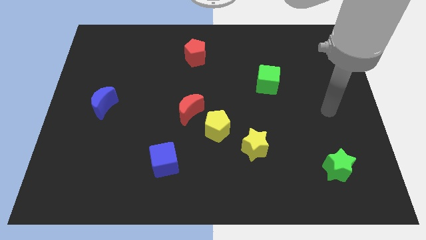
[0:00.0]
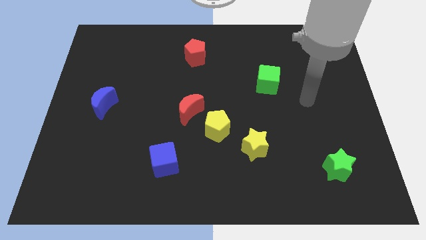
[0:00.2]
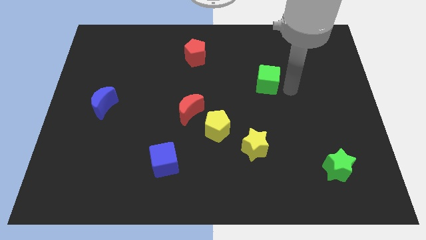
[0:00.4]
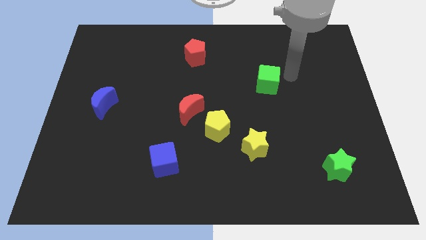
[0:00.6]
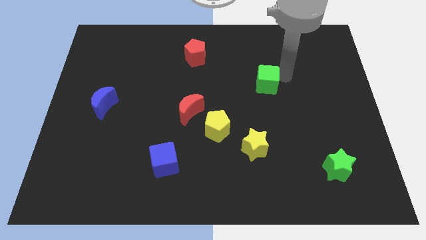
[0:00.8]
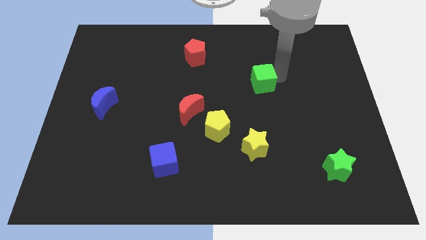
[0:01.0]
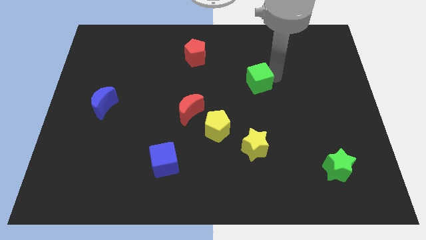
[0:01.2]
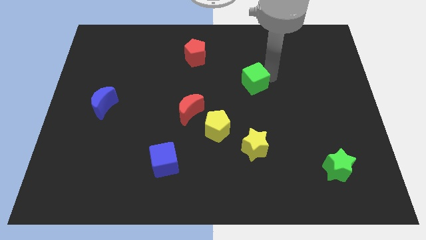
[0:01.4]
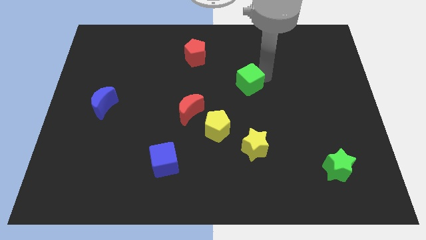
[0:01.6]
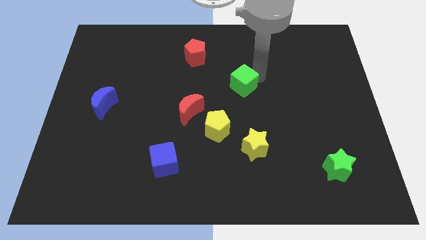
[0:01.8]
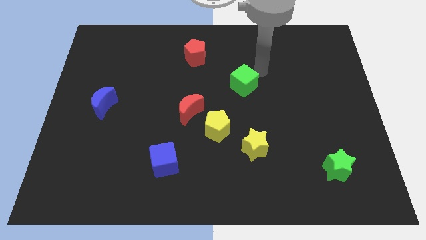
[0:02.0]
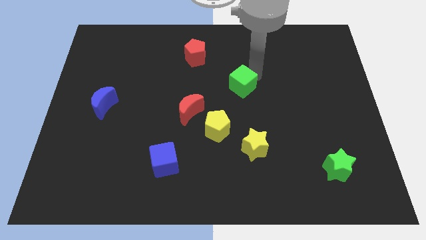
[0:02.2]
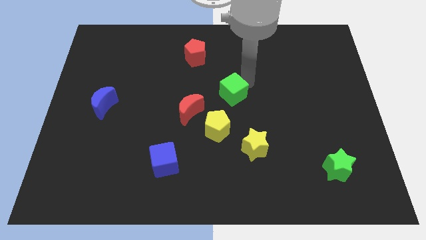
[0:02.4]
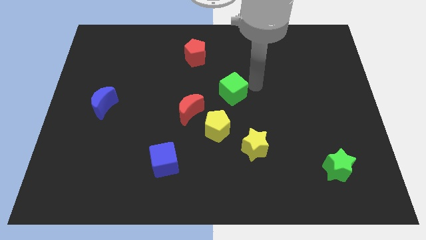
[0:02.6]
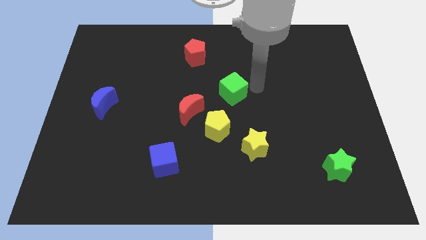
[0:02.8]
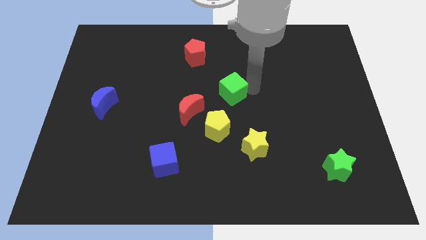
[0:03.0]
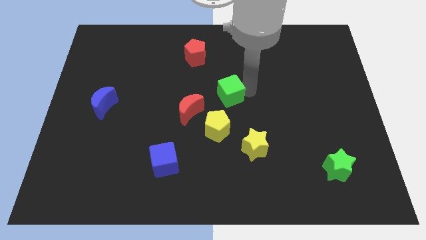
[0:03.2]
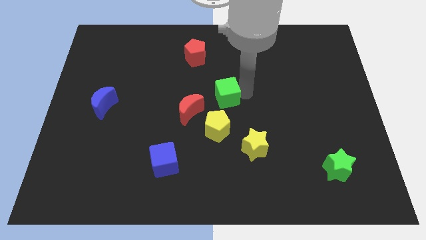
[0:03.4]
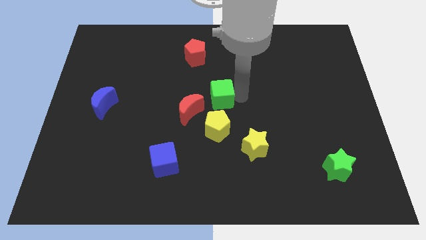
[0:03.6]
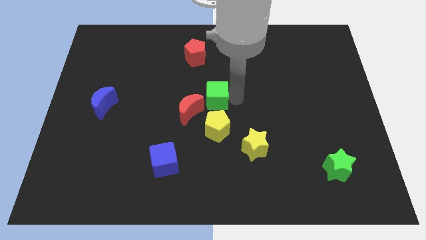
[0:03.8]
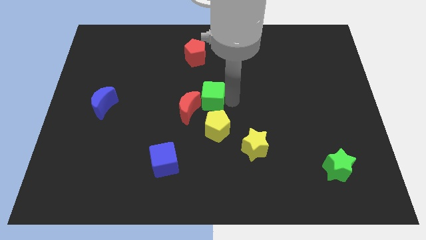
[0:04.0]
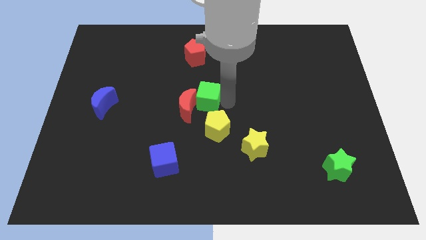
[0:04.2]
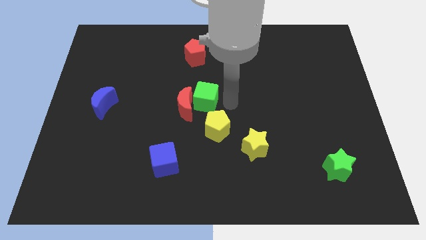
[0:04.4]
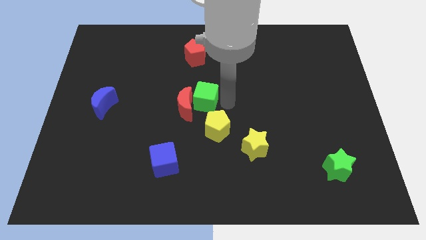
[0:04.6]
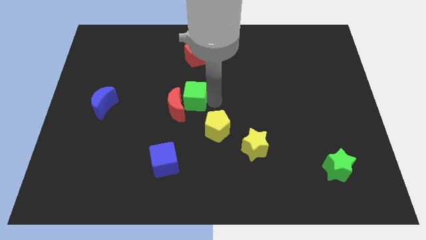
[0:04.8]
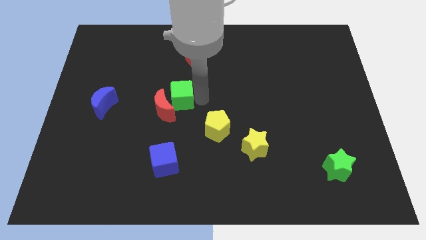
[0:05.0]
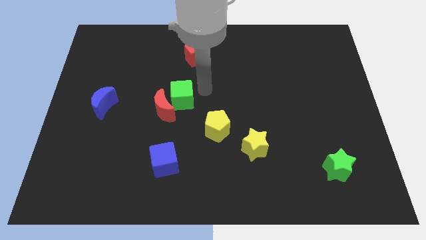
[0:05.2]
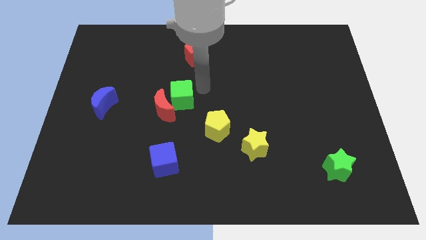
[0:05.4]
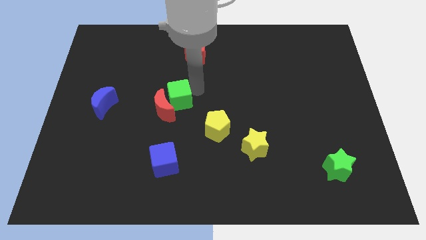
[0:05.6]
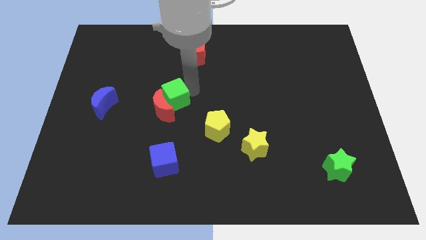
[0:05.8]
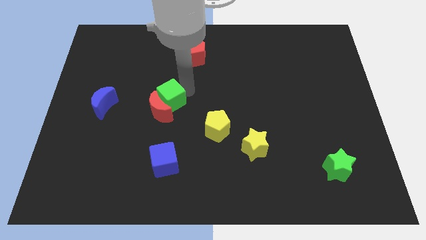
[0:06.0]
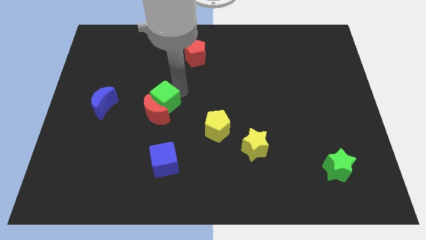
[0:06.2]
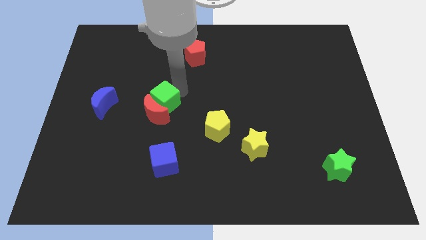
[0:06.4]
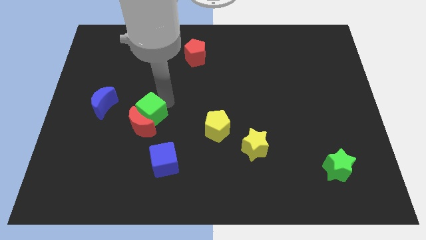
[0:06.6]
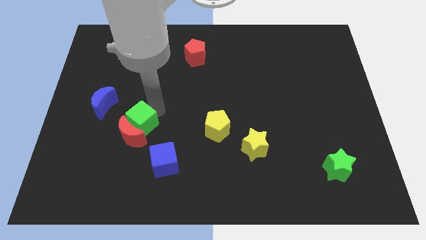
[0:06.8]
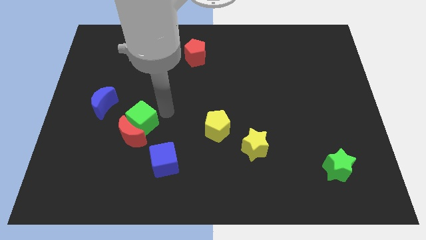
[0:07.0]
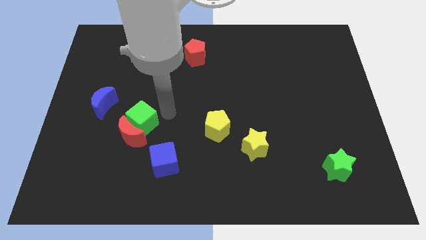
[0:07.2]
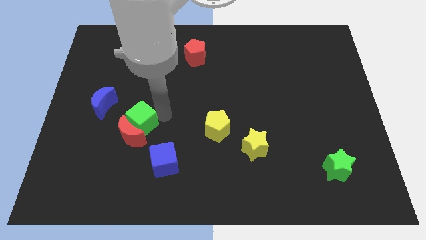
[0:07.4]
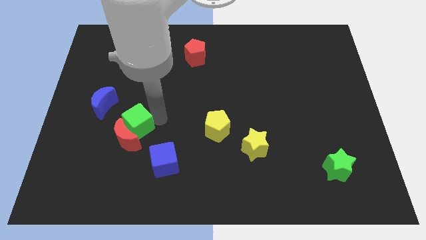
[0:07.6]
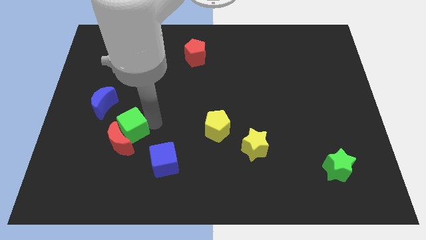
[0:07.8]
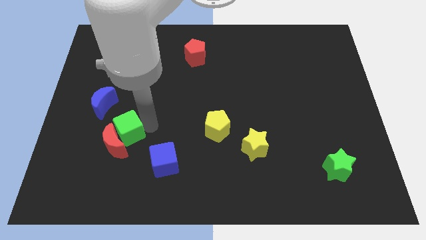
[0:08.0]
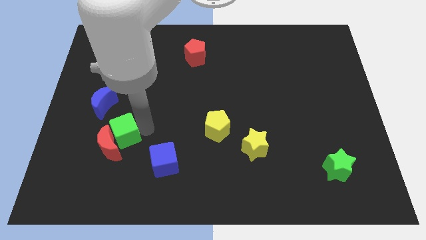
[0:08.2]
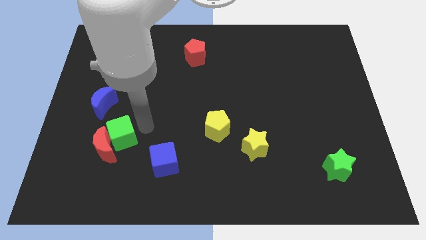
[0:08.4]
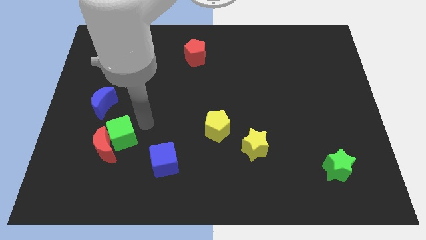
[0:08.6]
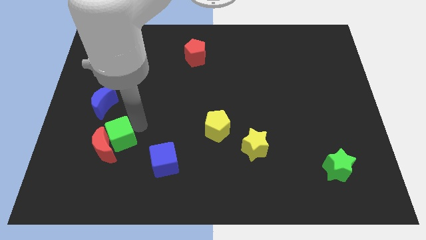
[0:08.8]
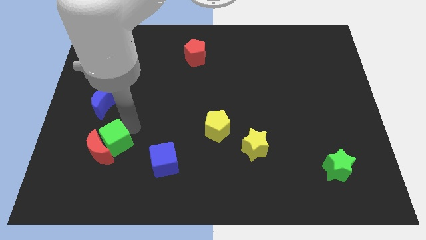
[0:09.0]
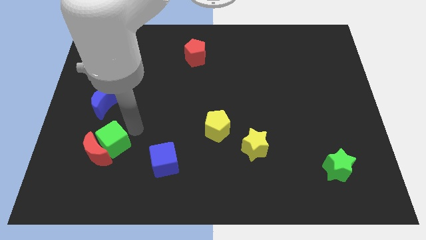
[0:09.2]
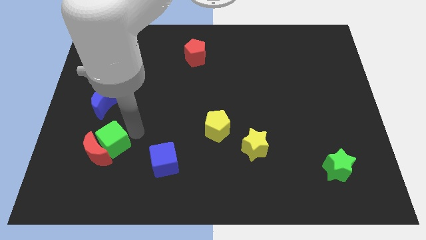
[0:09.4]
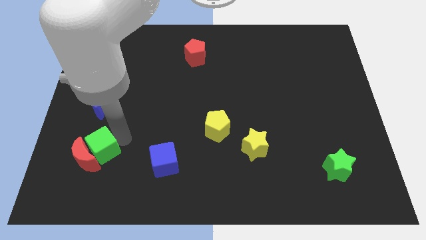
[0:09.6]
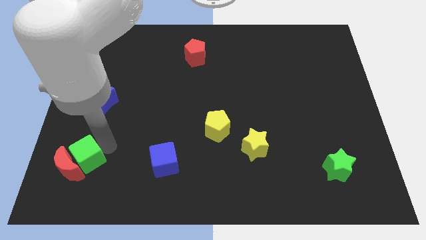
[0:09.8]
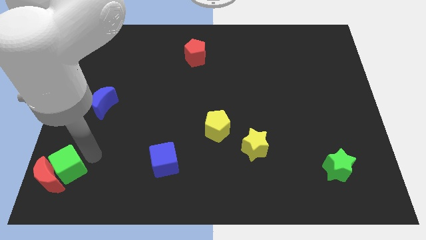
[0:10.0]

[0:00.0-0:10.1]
push the green cube to the bottom left of the board

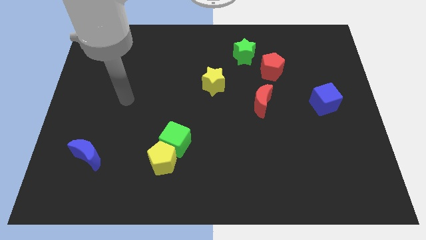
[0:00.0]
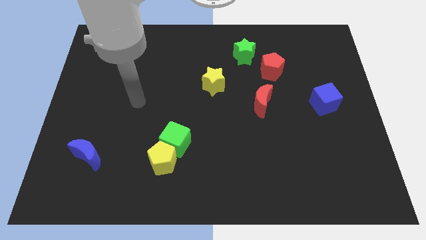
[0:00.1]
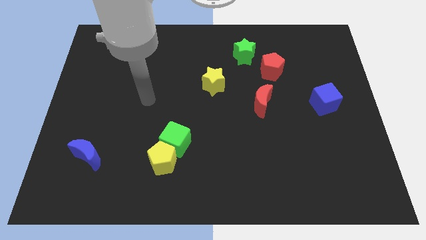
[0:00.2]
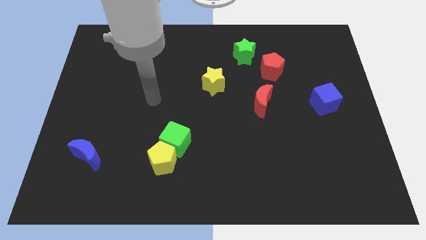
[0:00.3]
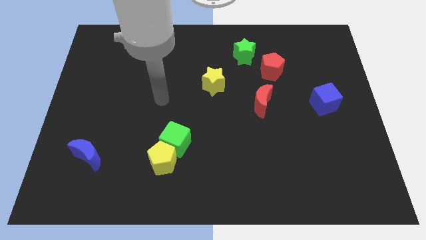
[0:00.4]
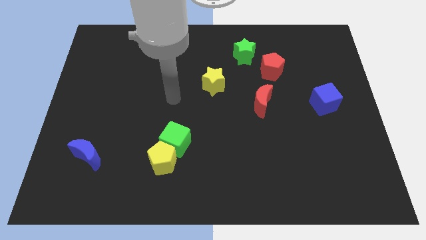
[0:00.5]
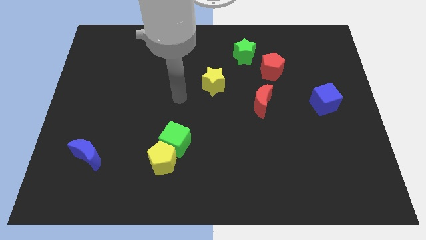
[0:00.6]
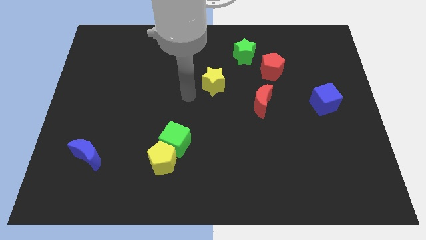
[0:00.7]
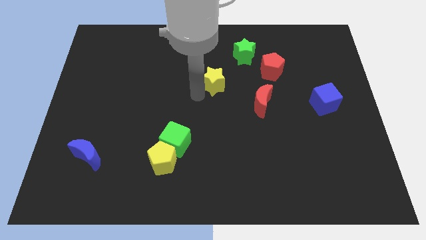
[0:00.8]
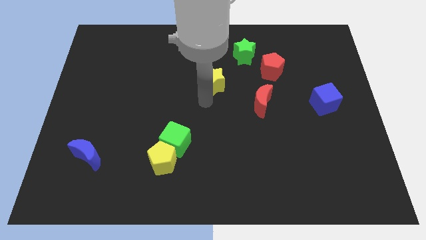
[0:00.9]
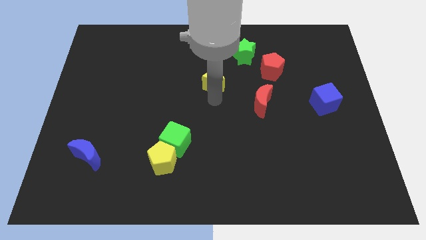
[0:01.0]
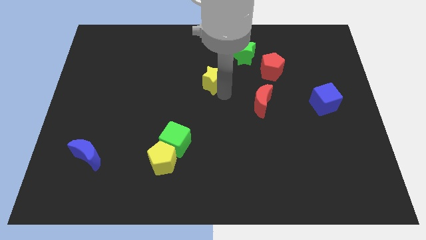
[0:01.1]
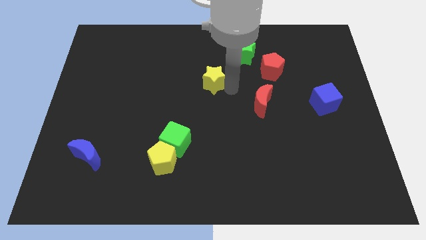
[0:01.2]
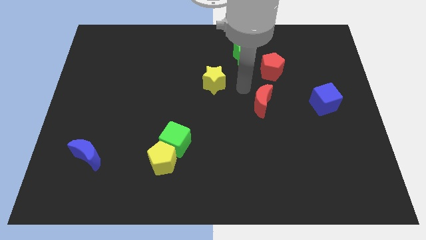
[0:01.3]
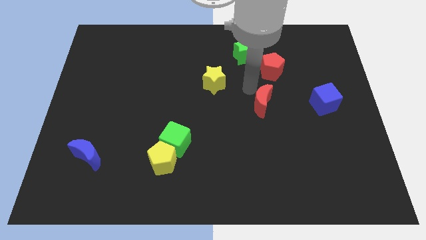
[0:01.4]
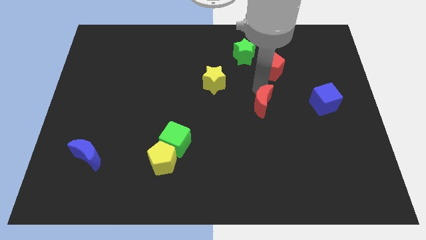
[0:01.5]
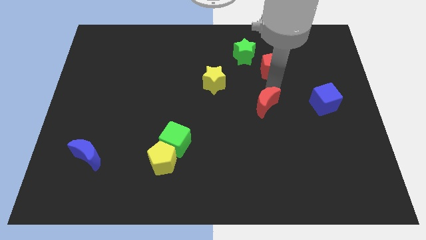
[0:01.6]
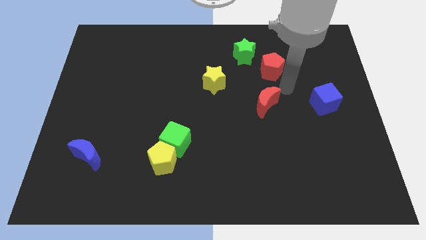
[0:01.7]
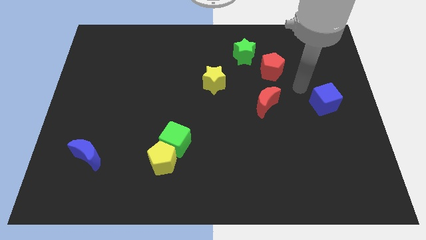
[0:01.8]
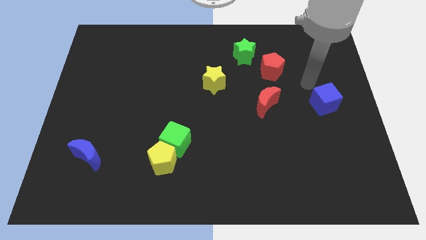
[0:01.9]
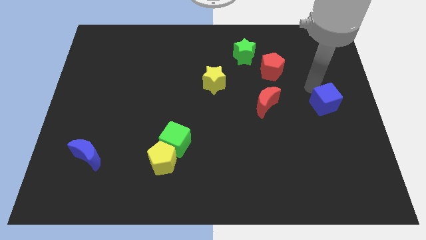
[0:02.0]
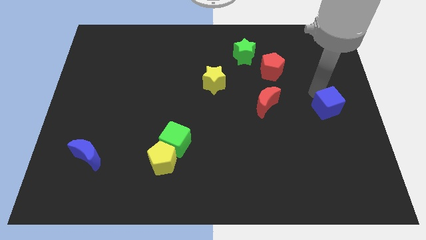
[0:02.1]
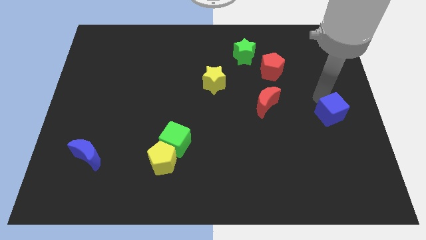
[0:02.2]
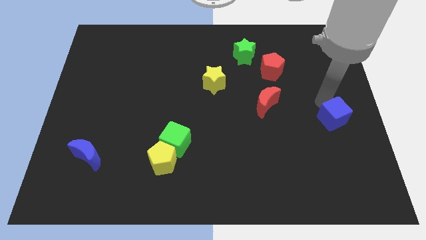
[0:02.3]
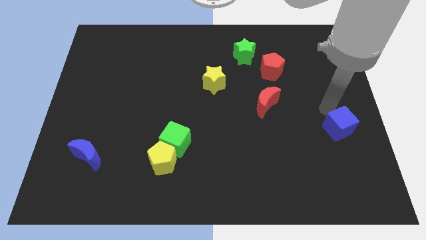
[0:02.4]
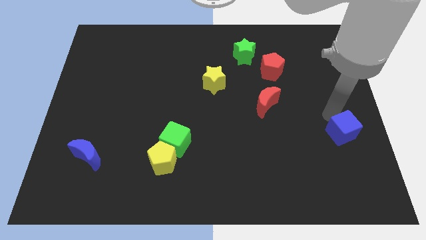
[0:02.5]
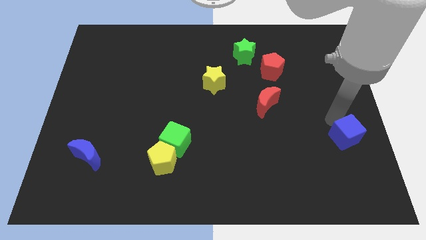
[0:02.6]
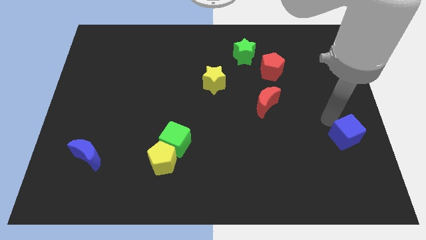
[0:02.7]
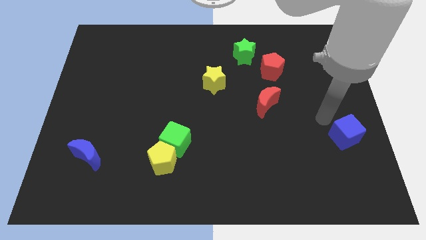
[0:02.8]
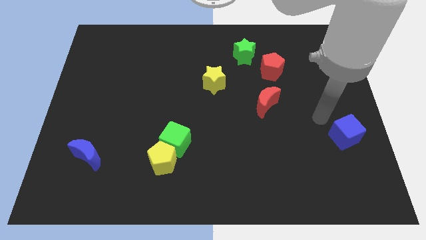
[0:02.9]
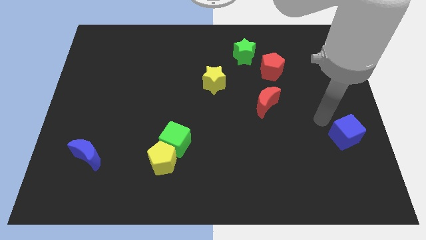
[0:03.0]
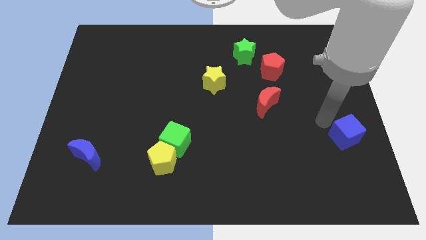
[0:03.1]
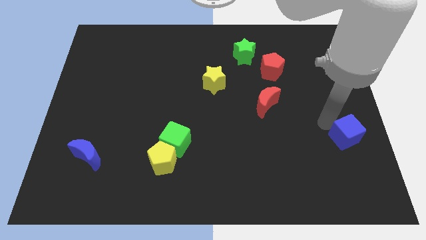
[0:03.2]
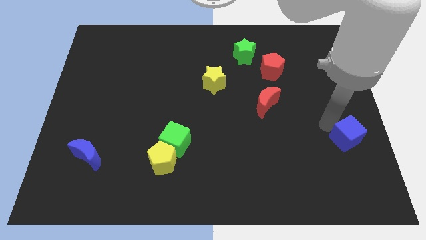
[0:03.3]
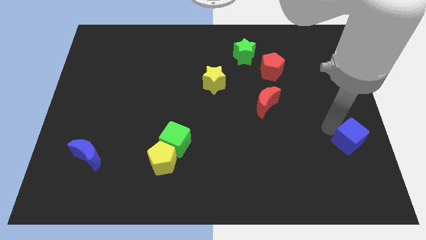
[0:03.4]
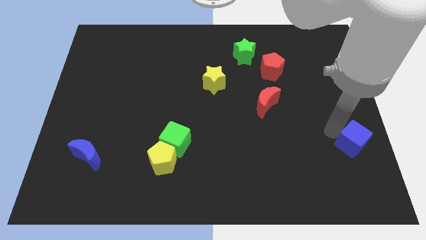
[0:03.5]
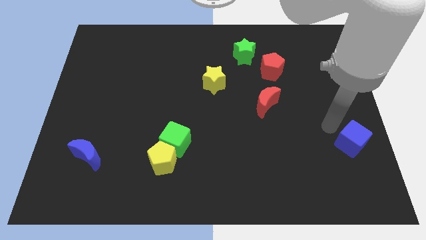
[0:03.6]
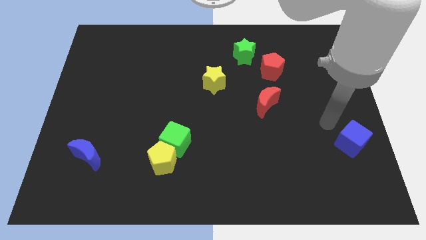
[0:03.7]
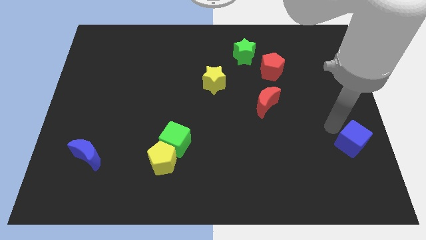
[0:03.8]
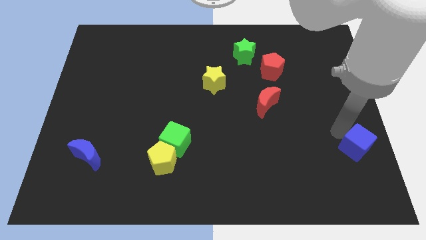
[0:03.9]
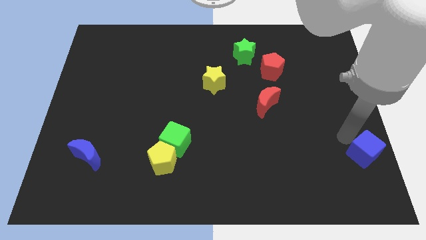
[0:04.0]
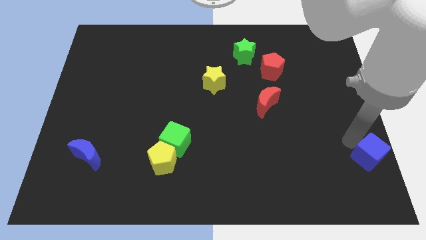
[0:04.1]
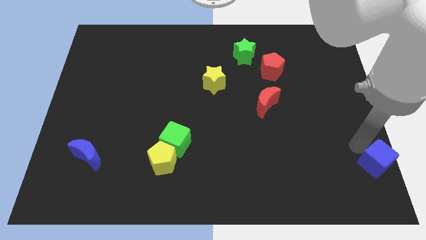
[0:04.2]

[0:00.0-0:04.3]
move the blue cube to the bottom right
